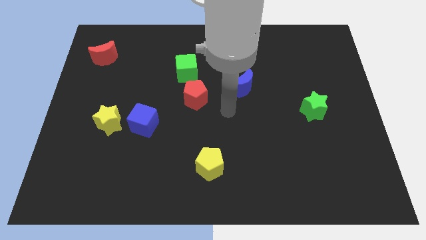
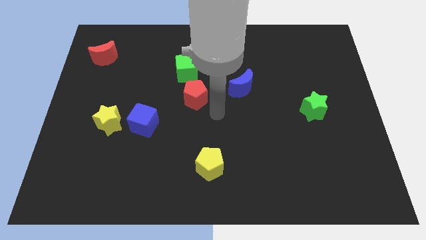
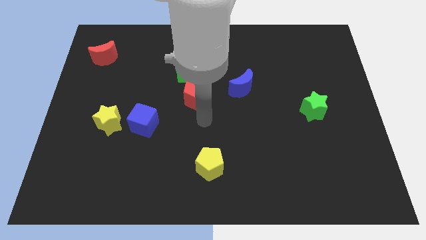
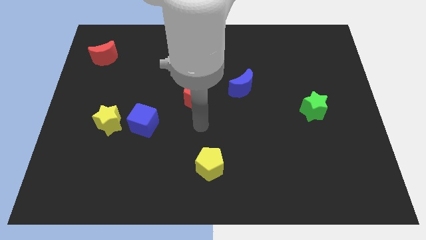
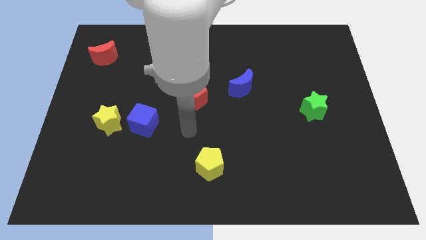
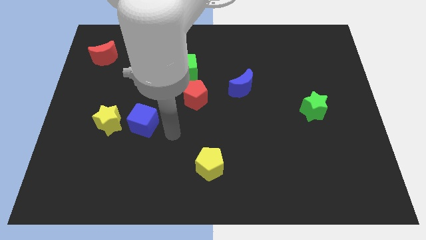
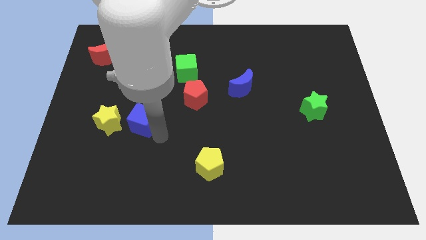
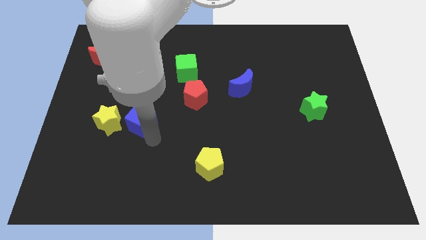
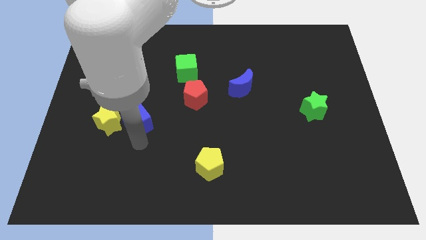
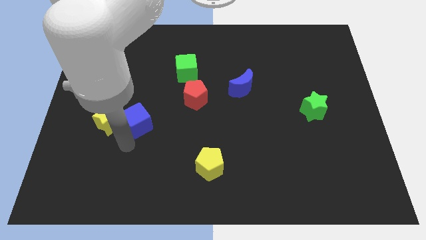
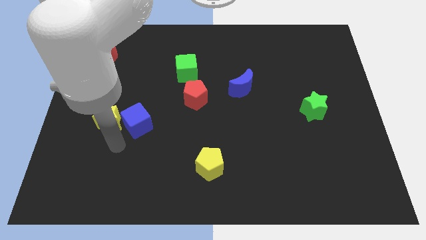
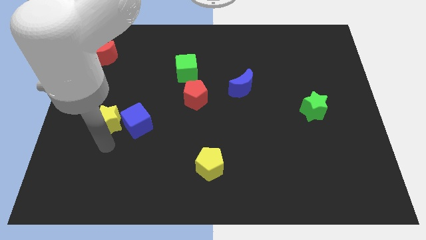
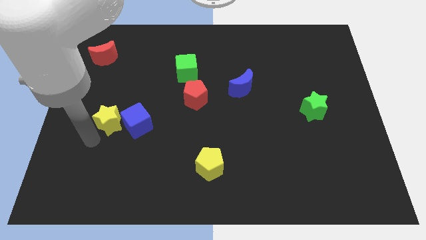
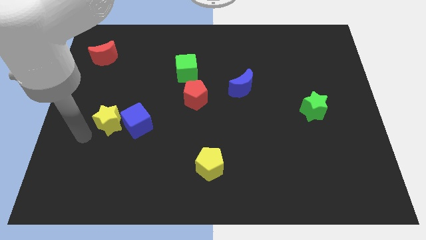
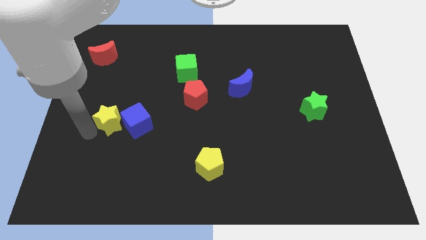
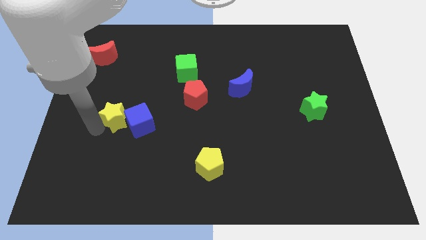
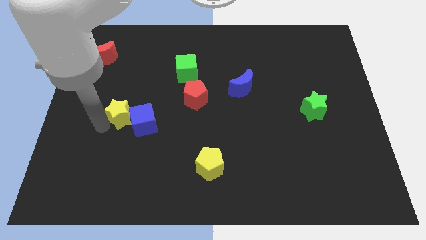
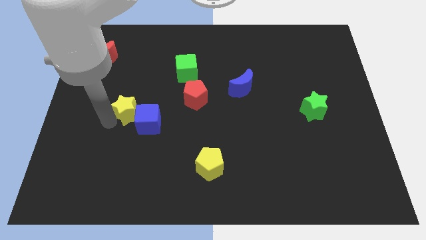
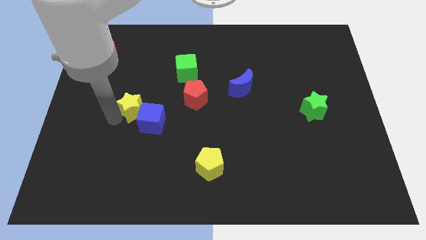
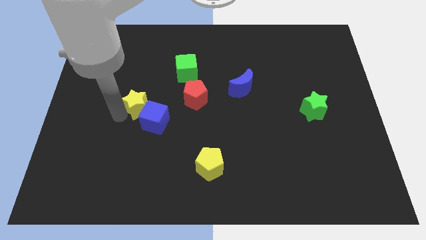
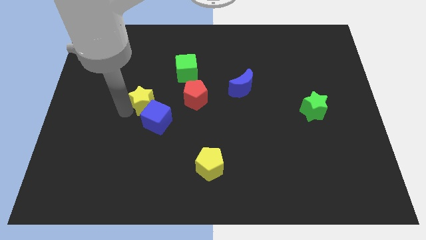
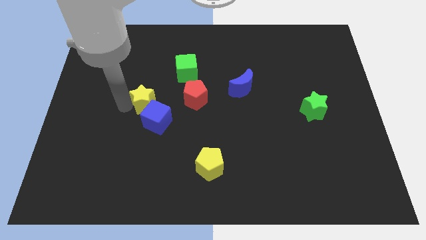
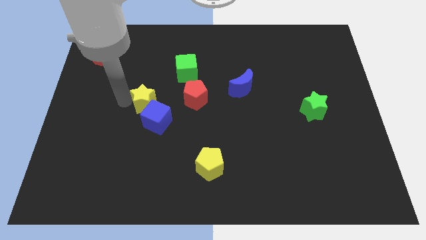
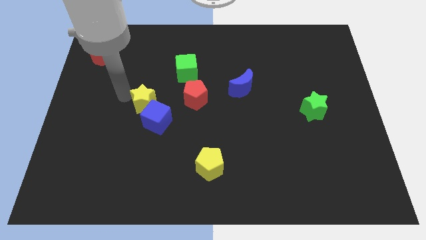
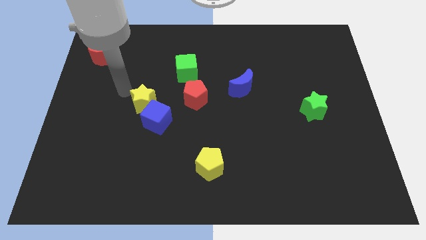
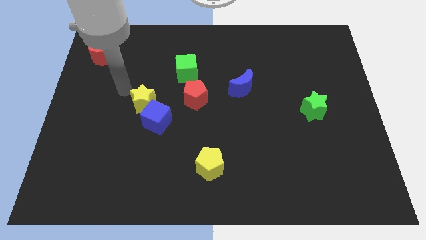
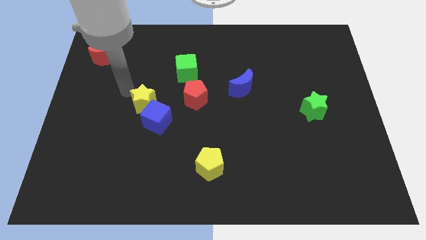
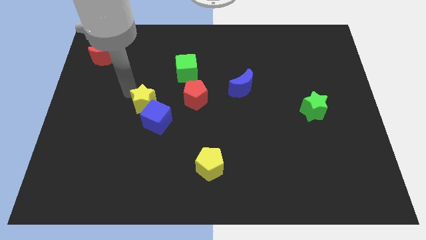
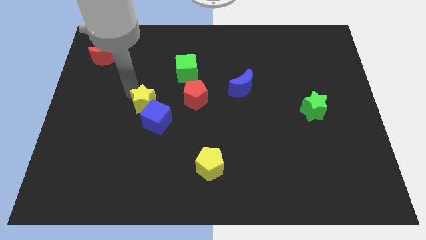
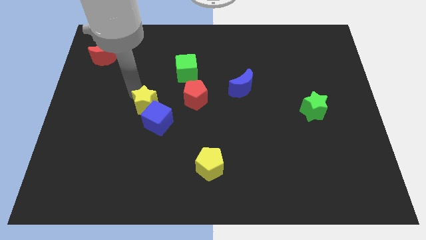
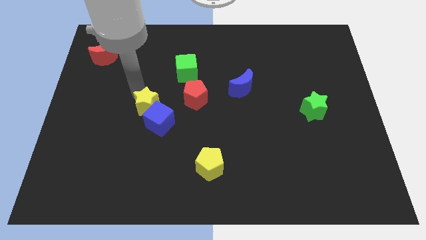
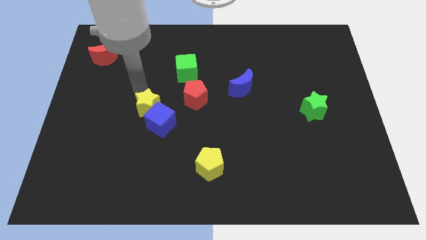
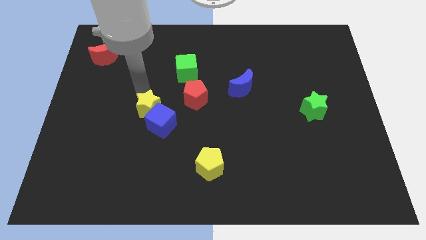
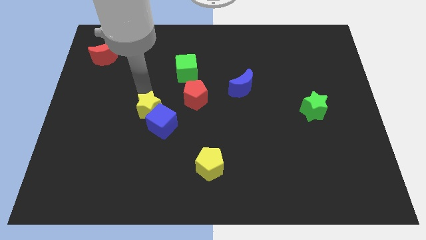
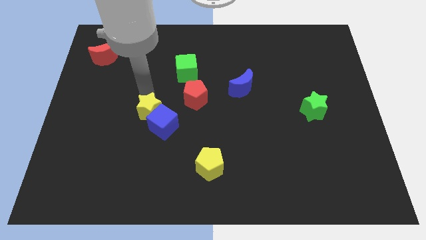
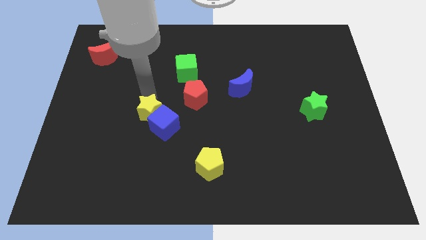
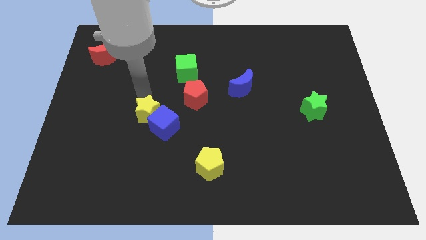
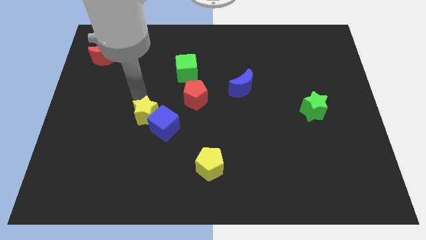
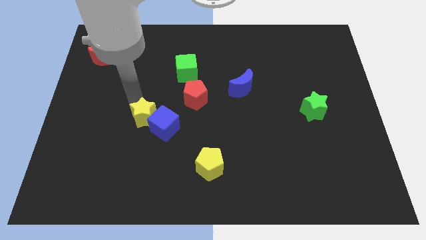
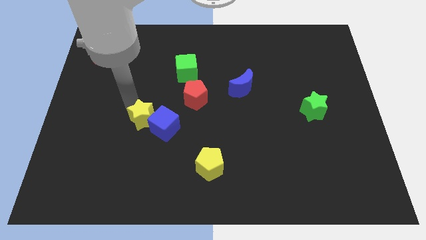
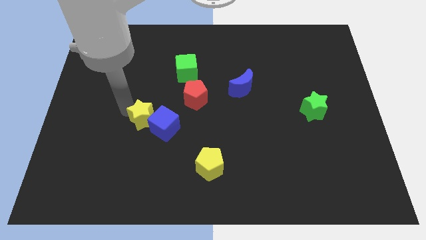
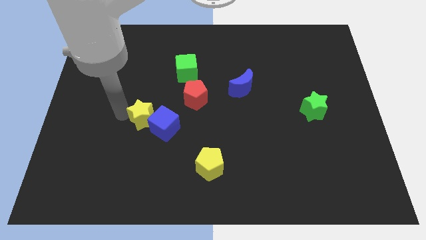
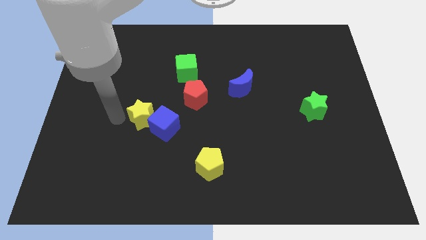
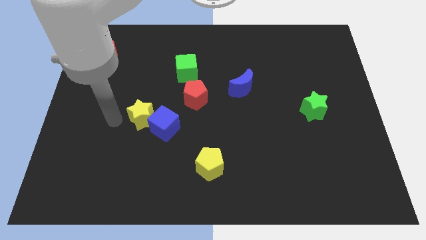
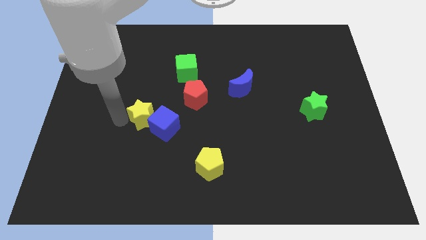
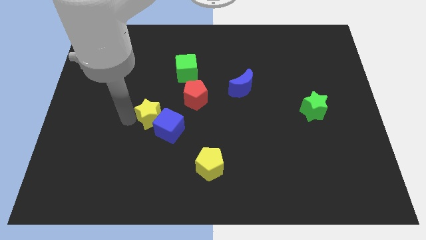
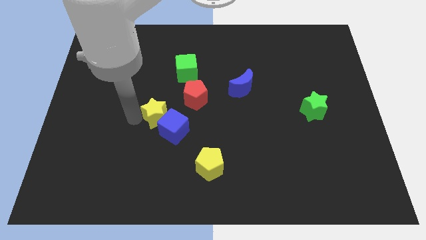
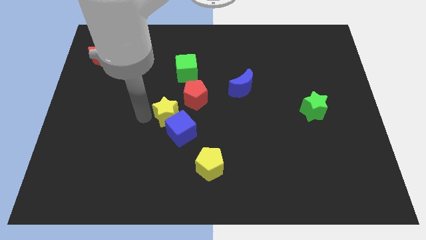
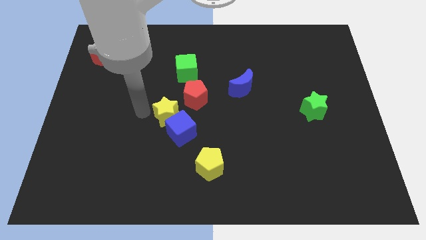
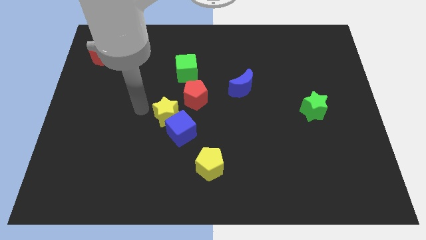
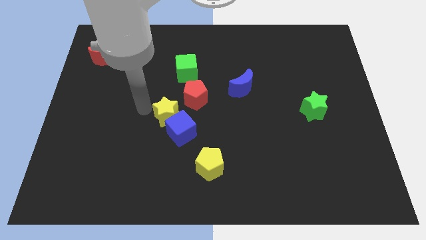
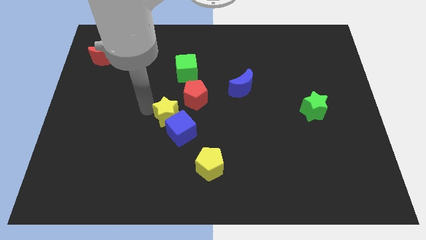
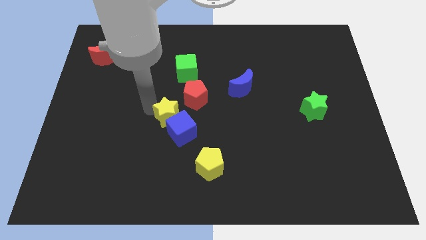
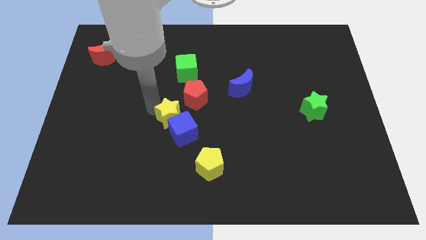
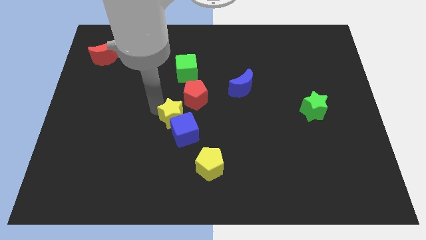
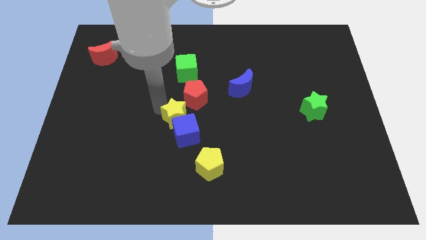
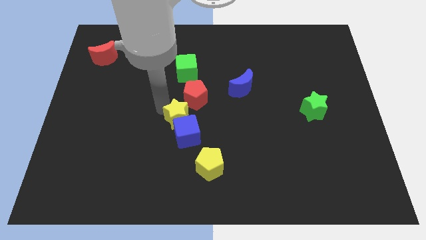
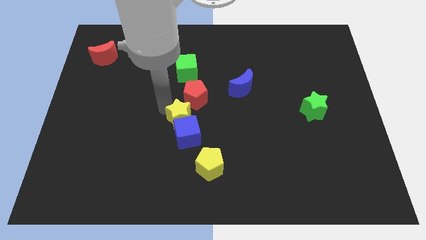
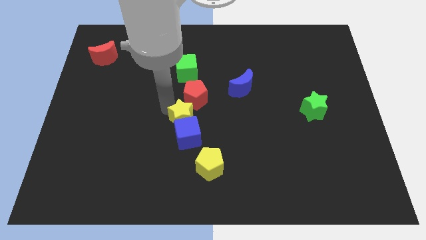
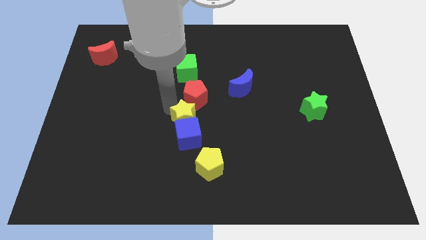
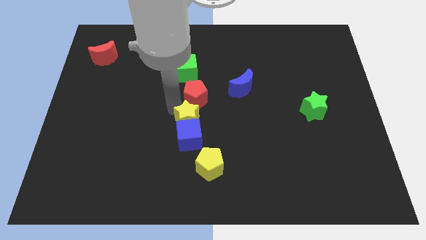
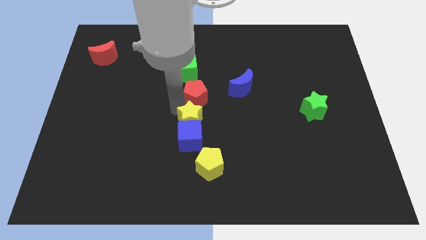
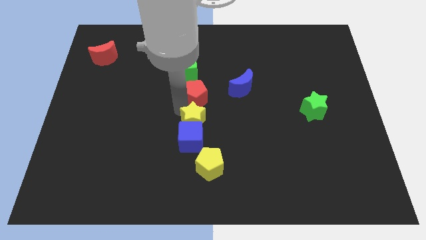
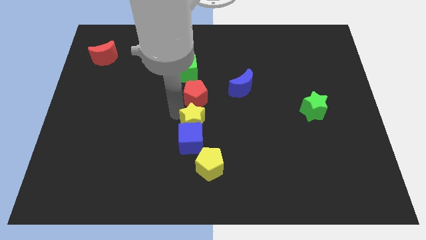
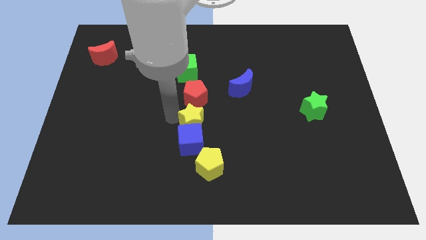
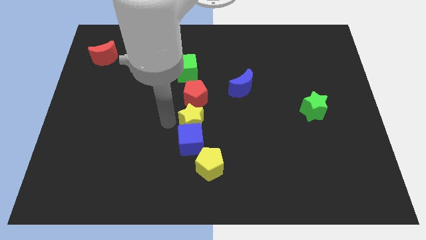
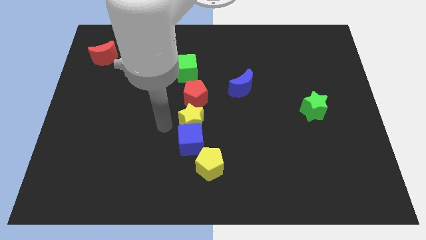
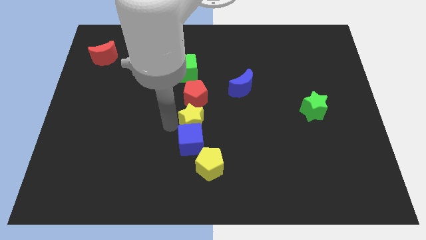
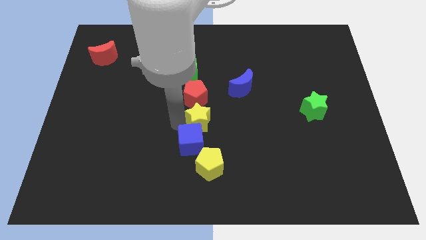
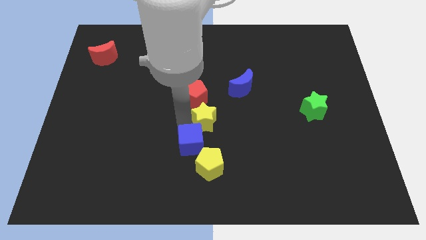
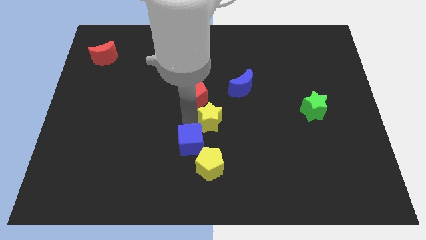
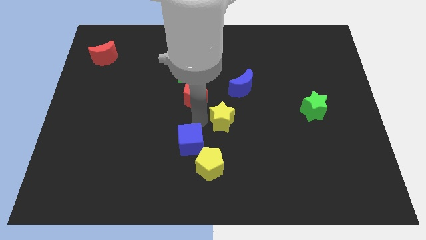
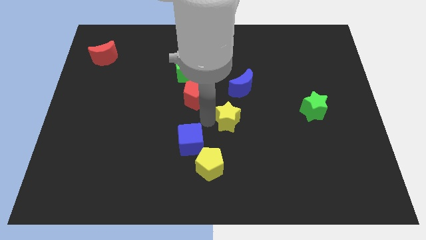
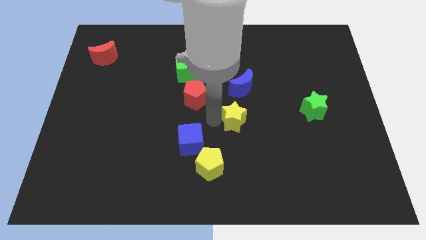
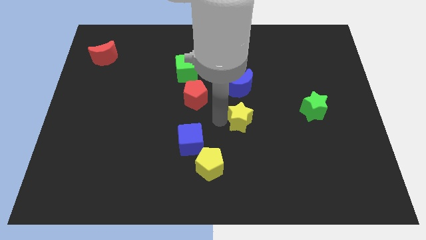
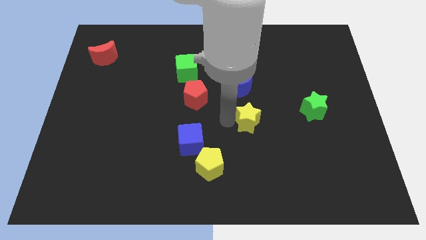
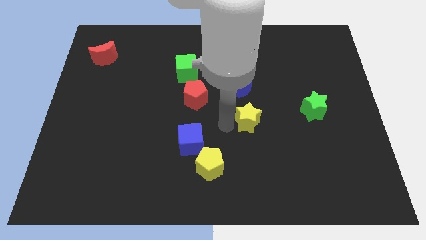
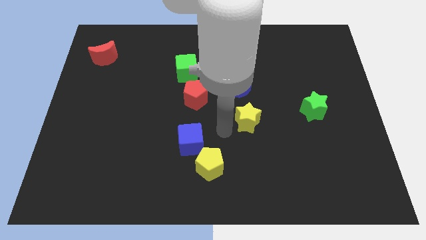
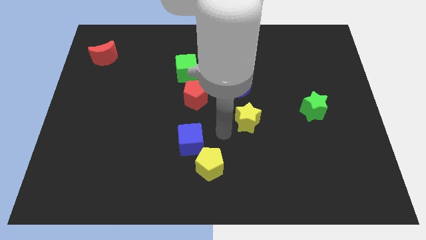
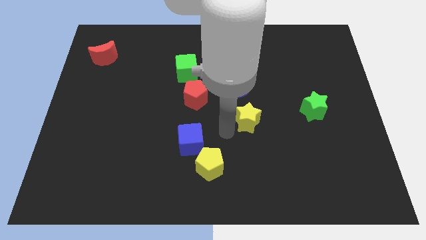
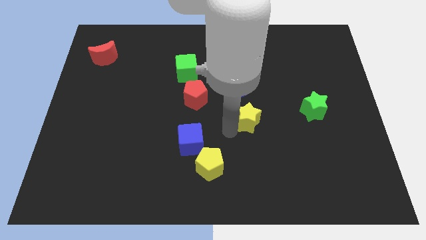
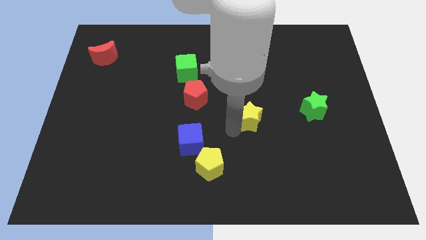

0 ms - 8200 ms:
put the yellow star left of the green star
